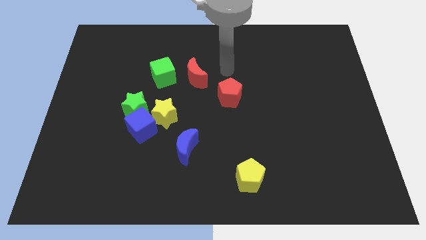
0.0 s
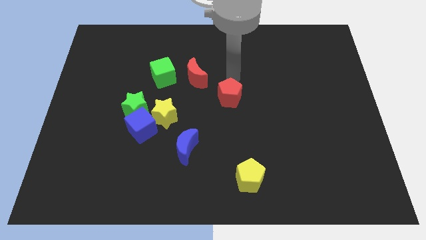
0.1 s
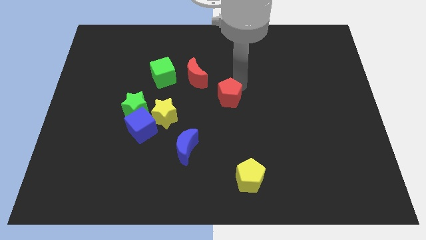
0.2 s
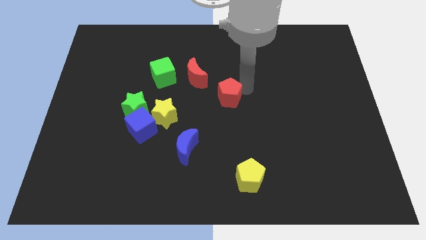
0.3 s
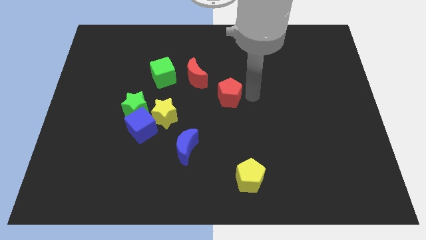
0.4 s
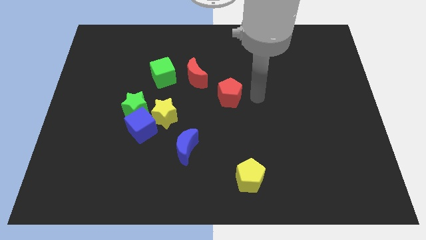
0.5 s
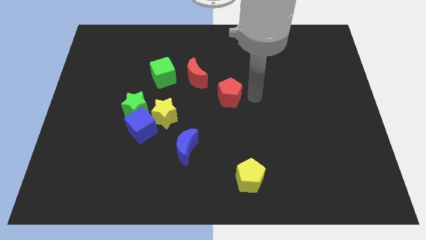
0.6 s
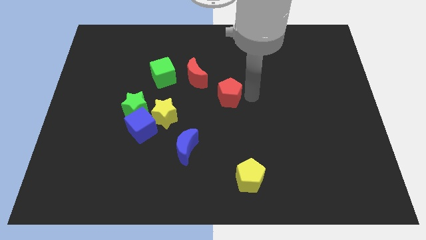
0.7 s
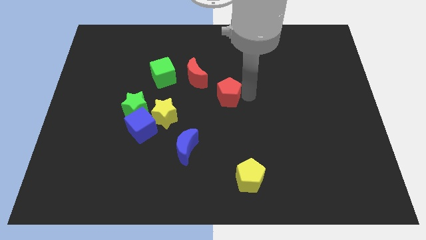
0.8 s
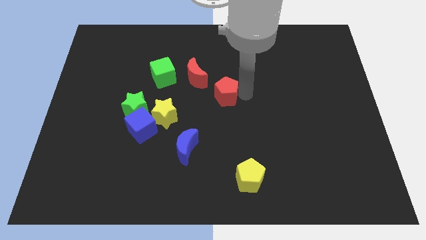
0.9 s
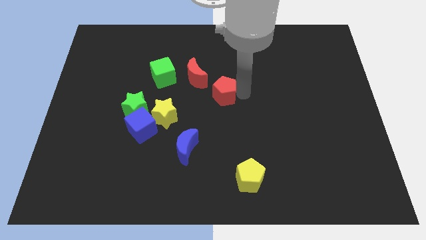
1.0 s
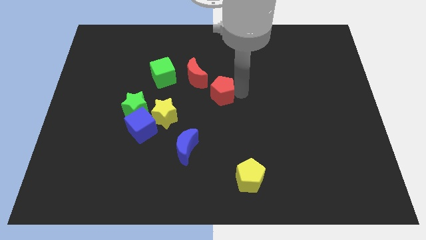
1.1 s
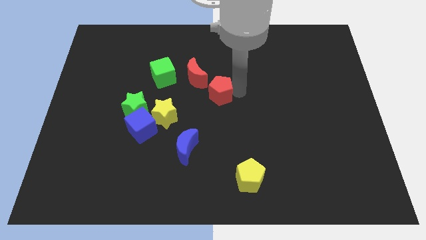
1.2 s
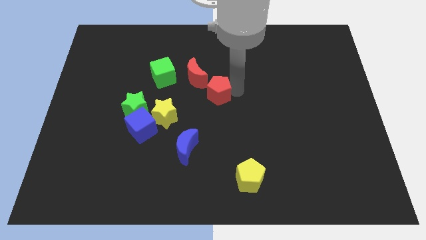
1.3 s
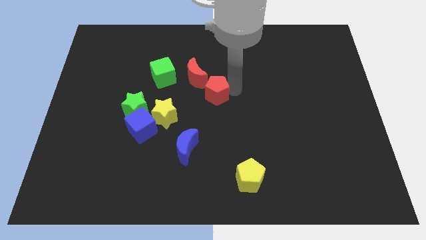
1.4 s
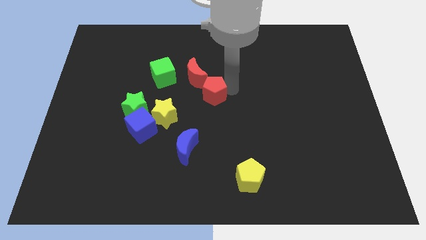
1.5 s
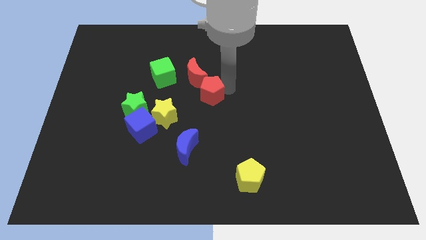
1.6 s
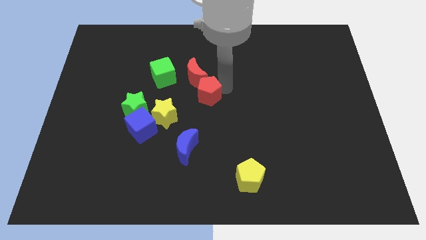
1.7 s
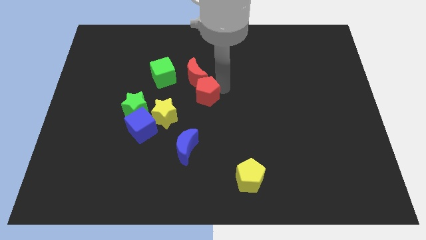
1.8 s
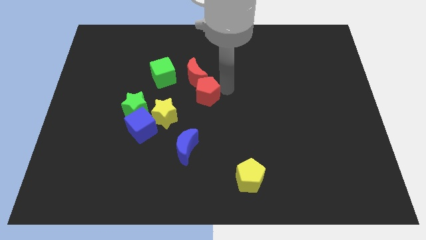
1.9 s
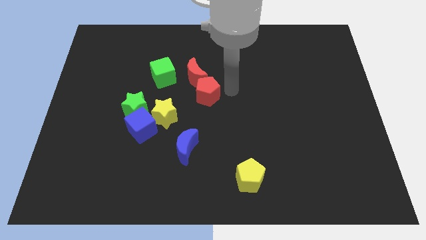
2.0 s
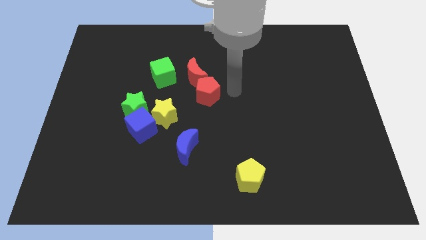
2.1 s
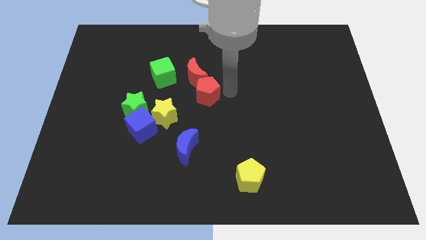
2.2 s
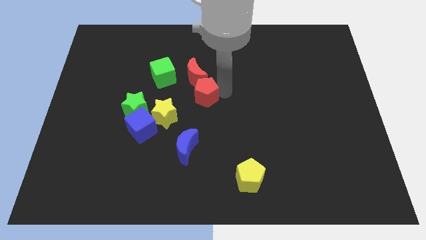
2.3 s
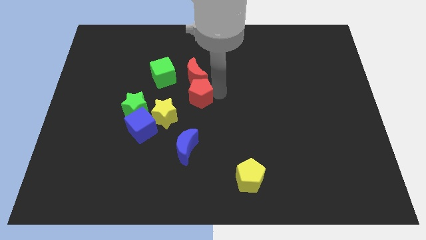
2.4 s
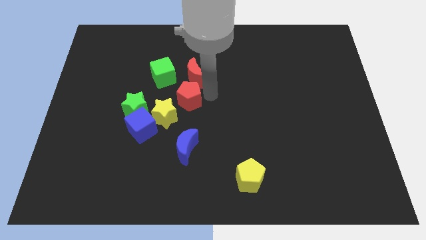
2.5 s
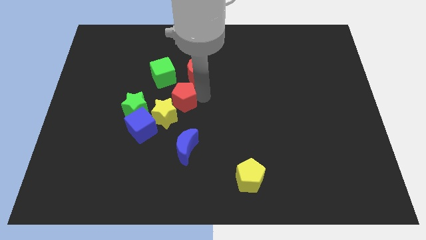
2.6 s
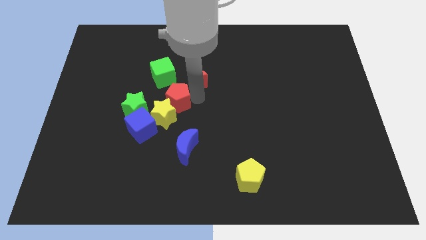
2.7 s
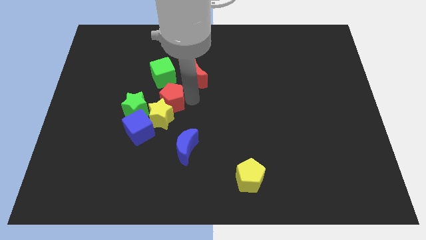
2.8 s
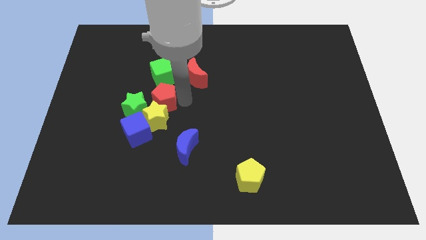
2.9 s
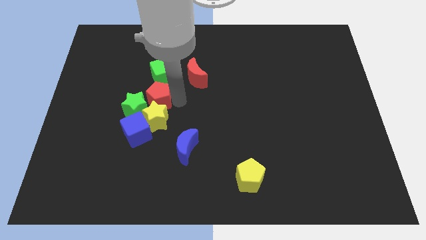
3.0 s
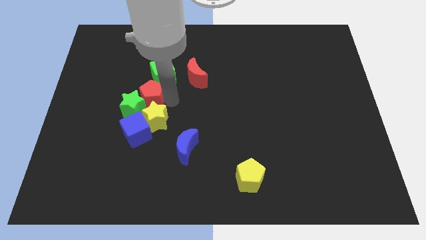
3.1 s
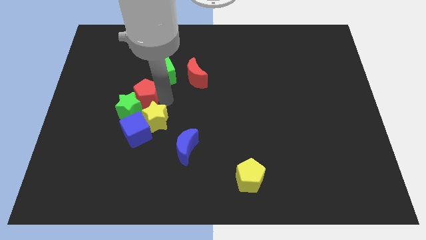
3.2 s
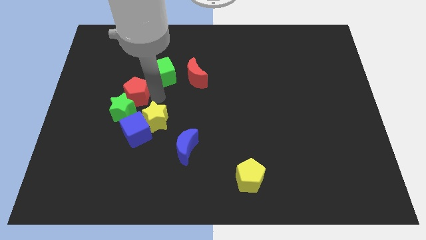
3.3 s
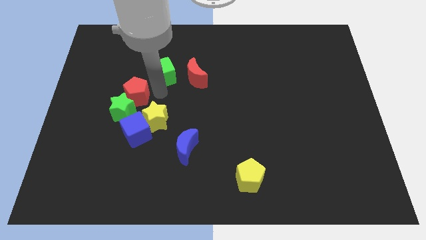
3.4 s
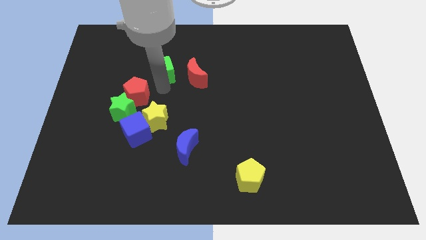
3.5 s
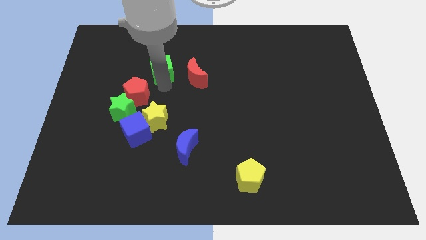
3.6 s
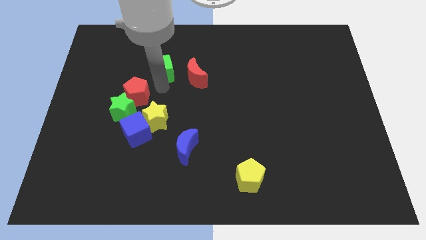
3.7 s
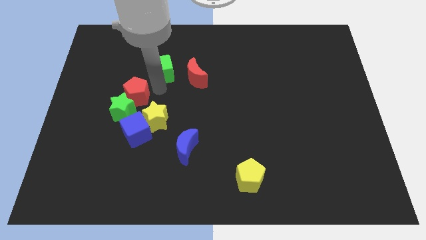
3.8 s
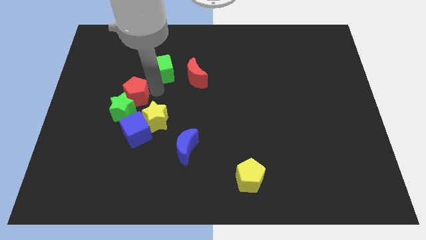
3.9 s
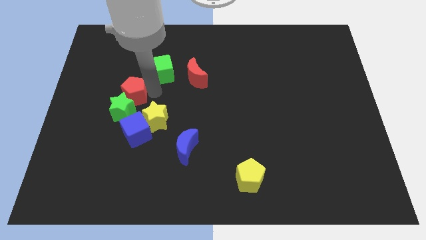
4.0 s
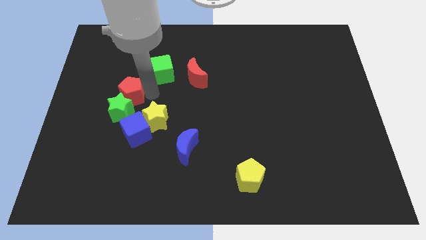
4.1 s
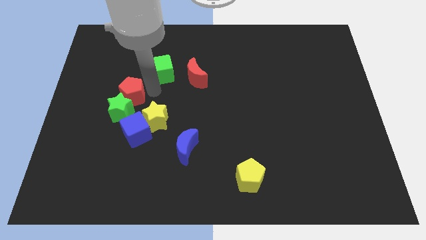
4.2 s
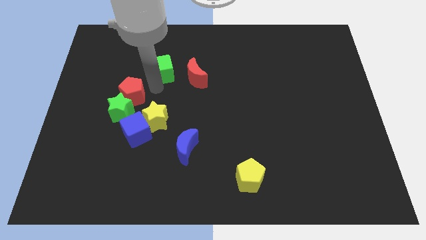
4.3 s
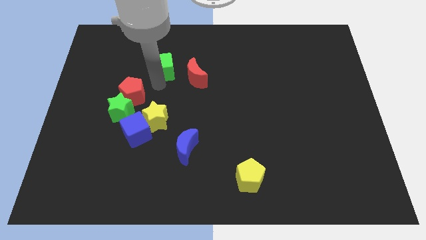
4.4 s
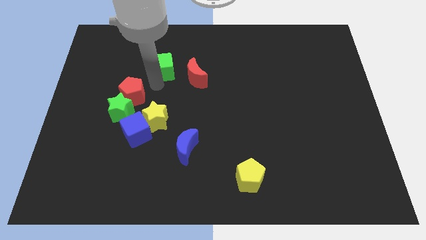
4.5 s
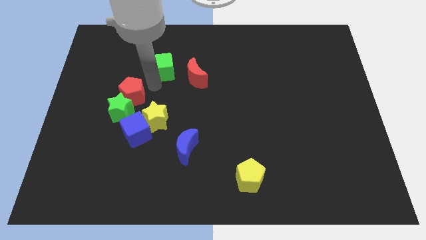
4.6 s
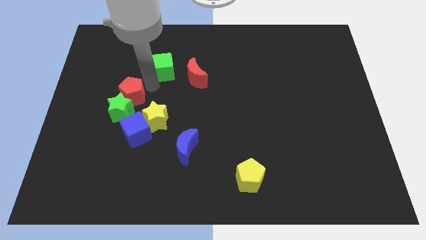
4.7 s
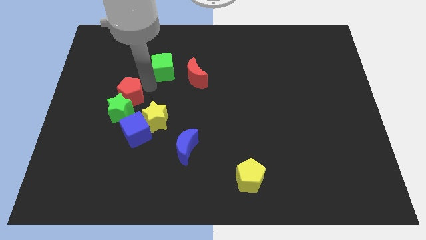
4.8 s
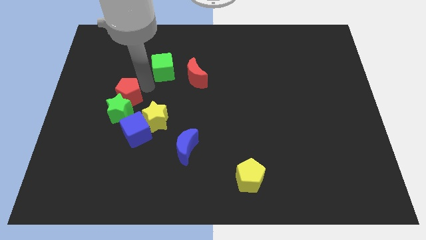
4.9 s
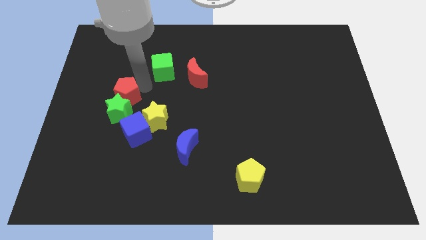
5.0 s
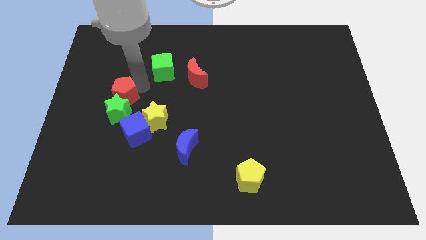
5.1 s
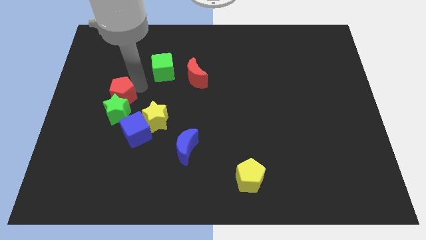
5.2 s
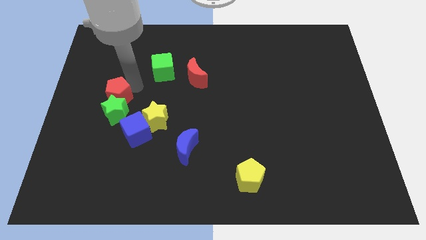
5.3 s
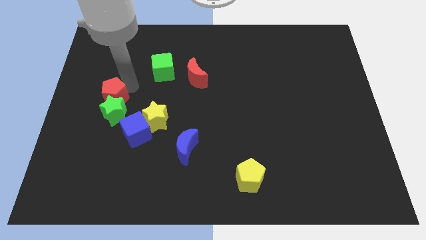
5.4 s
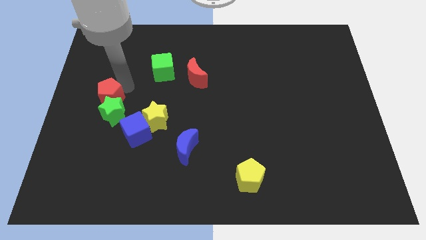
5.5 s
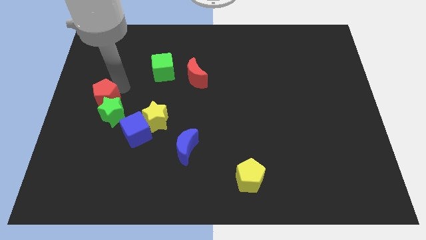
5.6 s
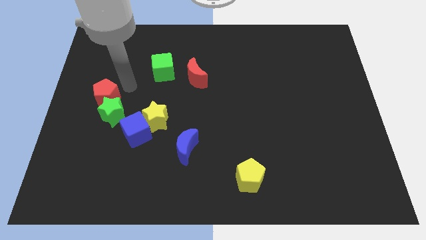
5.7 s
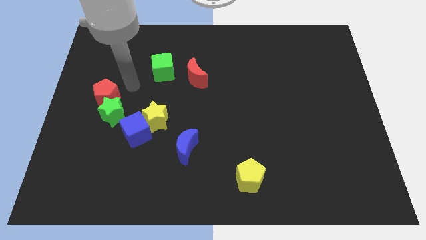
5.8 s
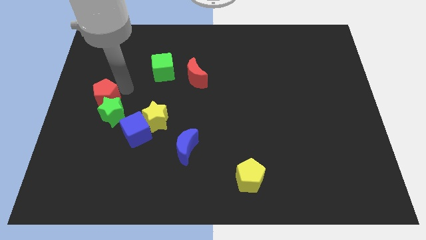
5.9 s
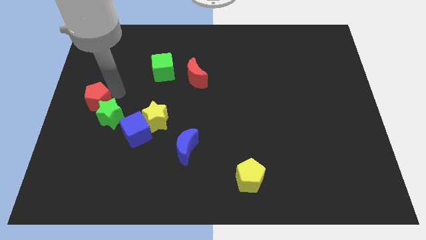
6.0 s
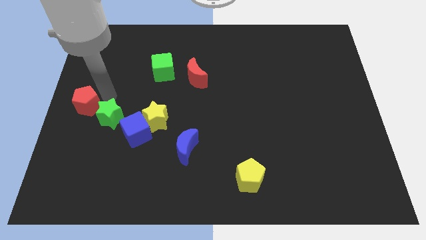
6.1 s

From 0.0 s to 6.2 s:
put the red pentagon to the left side of the green star

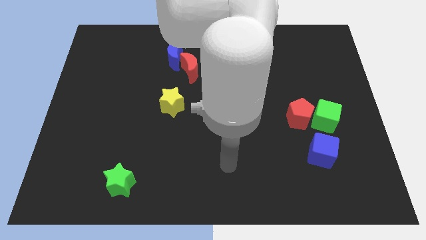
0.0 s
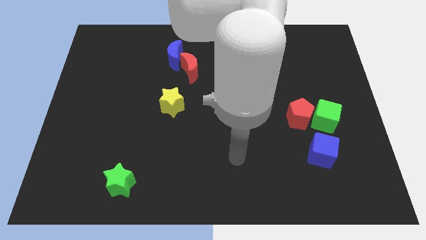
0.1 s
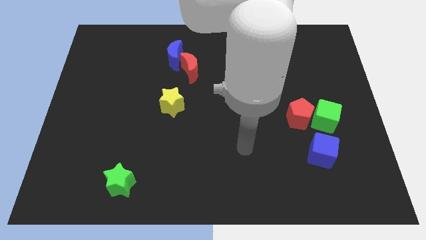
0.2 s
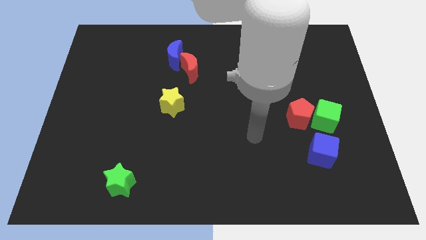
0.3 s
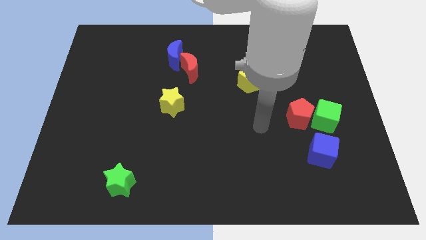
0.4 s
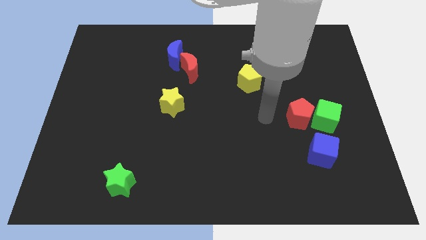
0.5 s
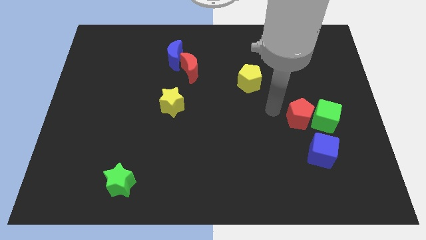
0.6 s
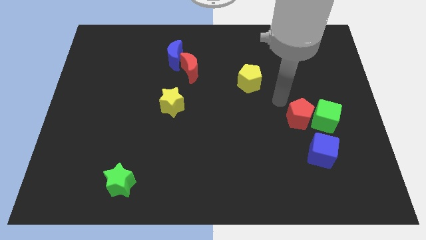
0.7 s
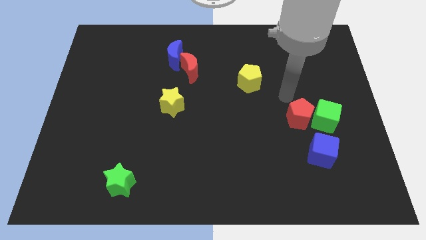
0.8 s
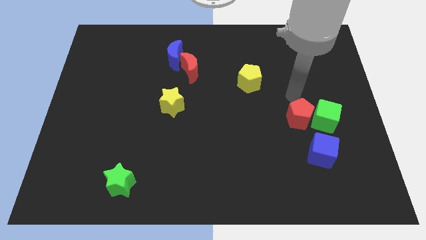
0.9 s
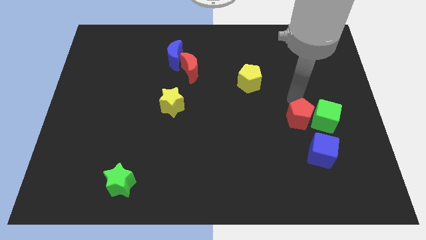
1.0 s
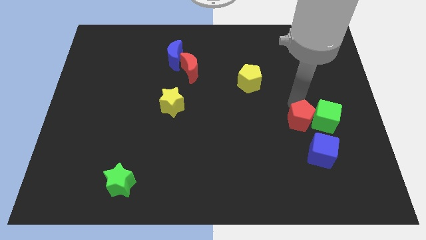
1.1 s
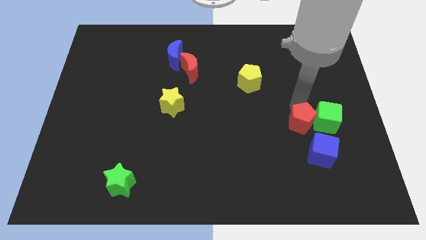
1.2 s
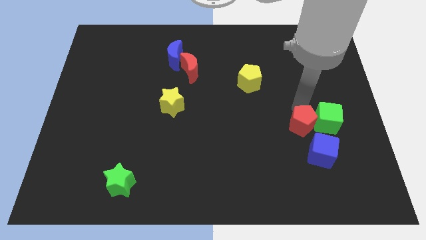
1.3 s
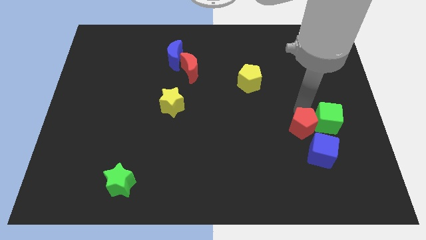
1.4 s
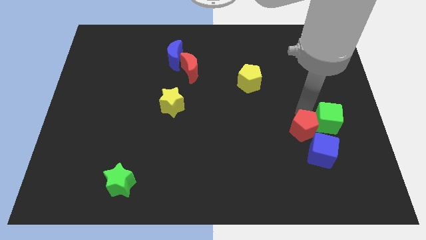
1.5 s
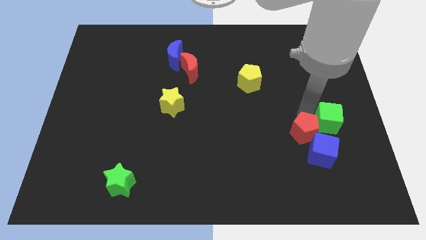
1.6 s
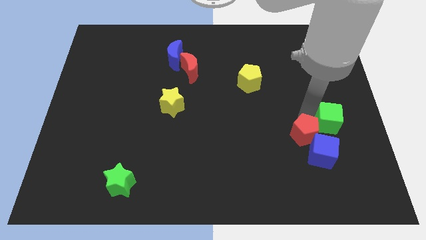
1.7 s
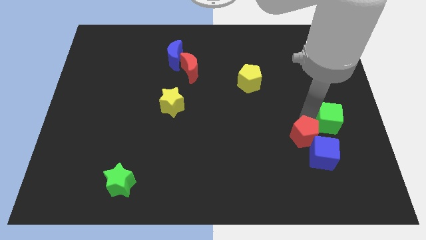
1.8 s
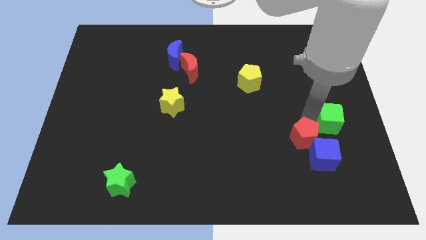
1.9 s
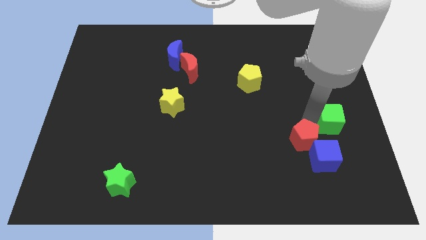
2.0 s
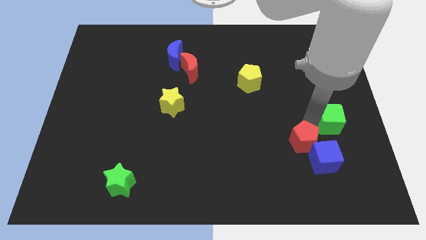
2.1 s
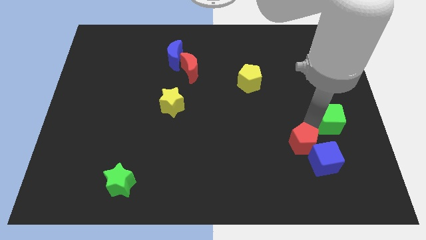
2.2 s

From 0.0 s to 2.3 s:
put the red pentagon just left of the blue cube
